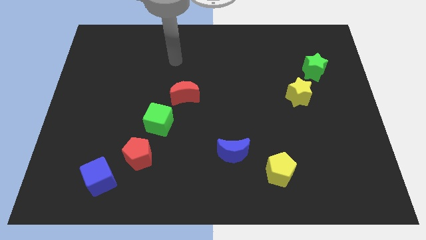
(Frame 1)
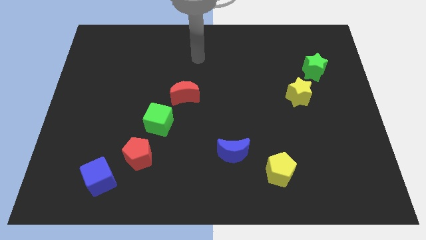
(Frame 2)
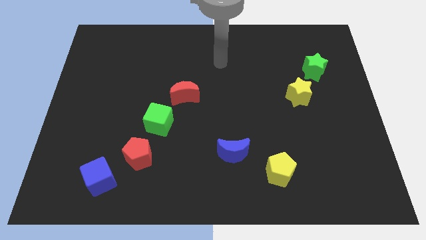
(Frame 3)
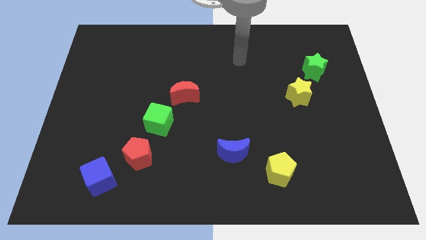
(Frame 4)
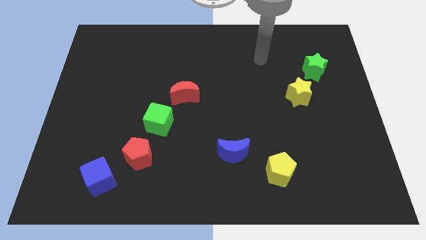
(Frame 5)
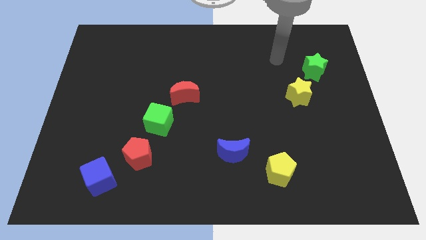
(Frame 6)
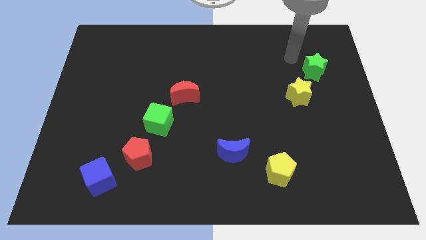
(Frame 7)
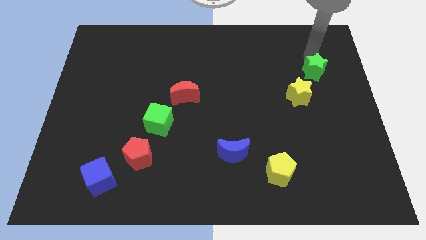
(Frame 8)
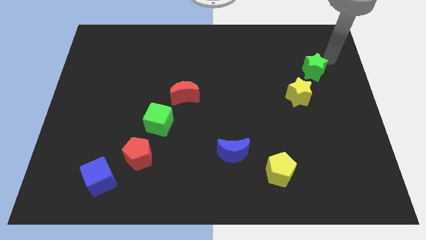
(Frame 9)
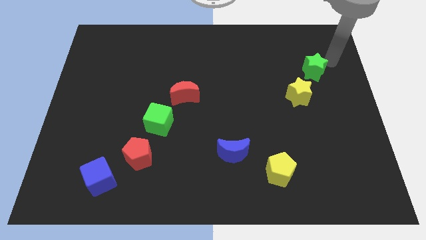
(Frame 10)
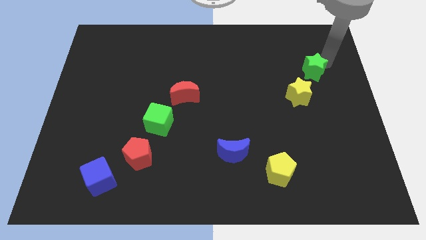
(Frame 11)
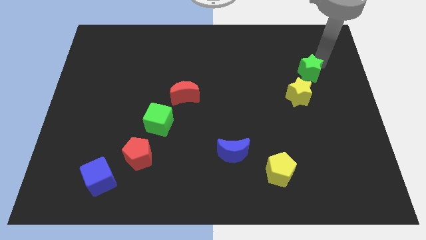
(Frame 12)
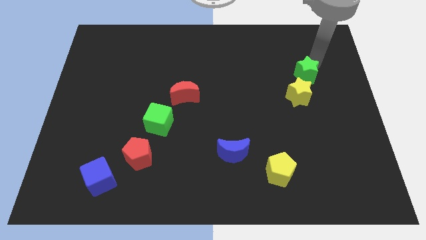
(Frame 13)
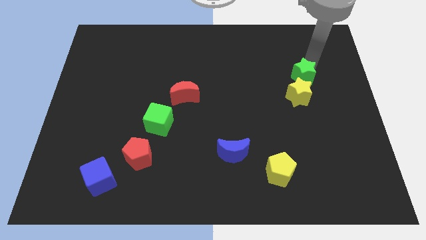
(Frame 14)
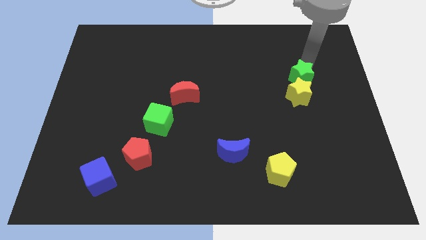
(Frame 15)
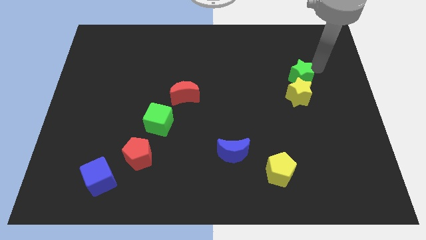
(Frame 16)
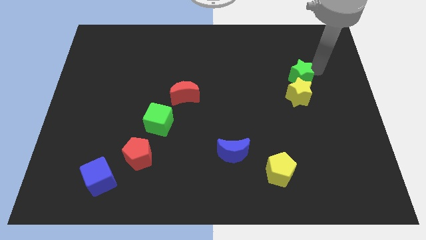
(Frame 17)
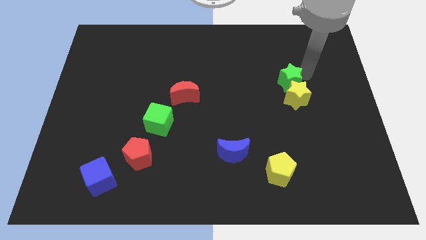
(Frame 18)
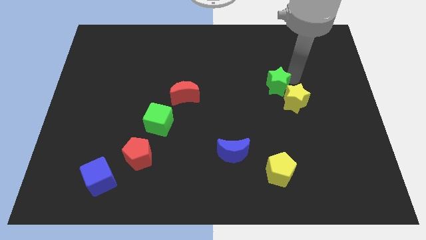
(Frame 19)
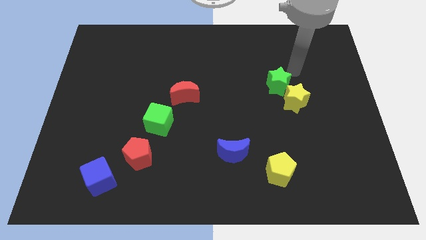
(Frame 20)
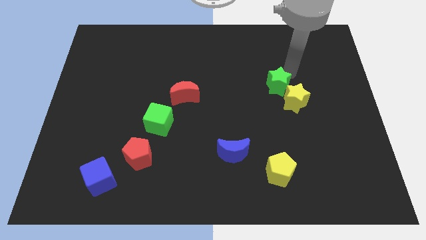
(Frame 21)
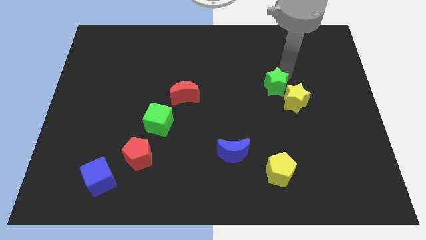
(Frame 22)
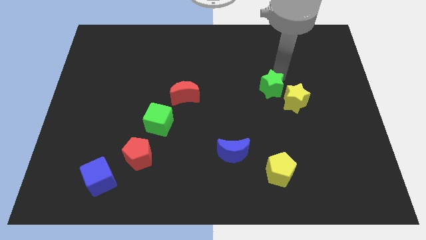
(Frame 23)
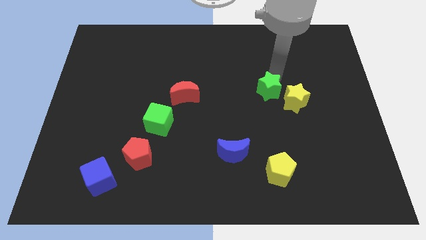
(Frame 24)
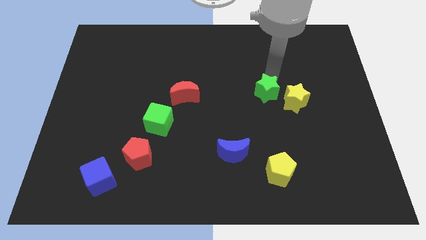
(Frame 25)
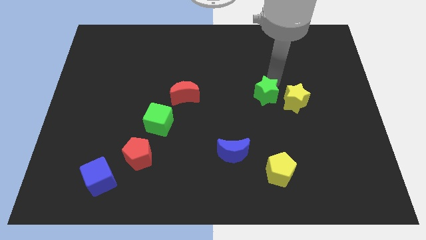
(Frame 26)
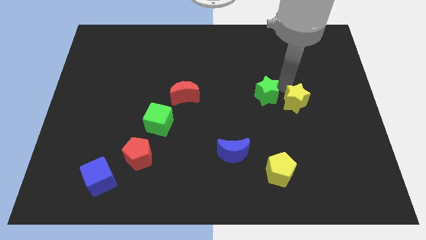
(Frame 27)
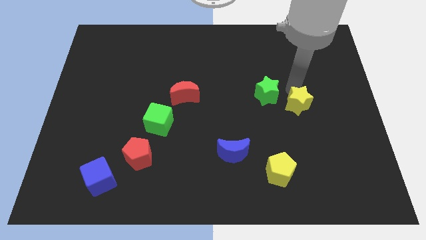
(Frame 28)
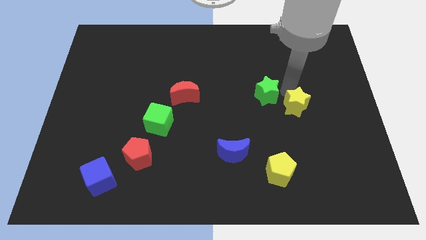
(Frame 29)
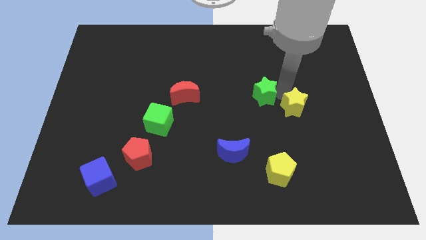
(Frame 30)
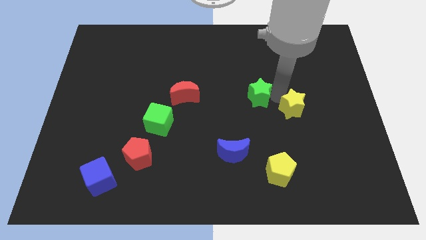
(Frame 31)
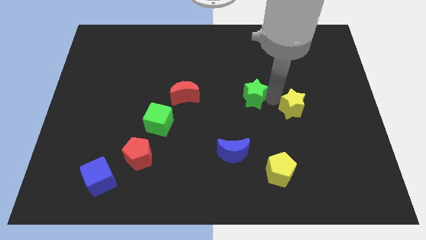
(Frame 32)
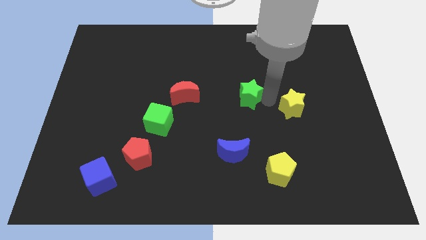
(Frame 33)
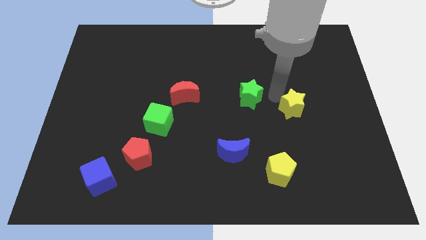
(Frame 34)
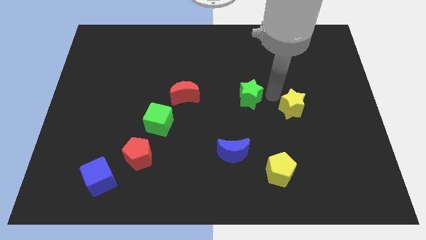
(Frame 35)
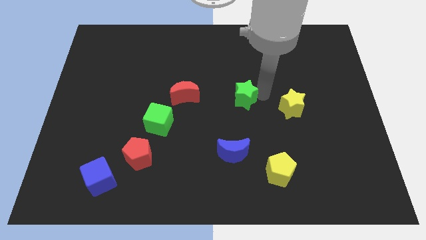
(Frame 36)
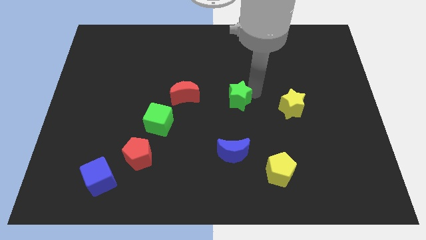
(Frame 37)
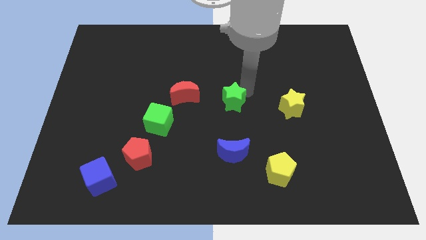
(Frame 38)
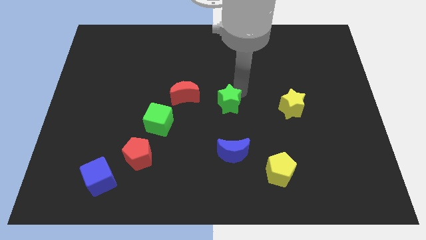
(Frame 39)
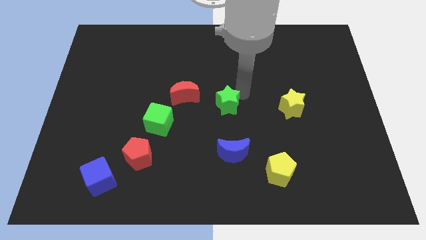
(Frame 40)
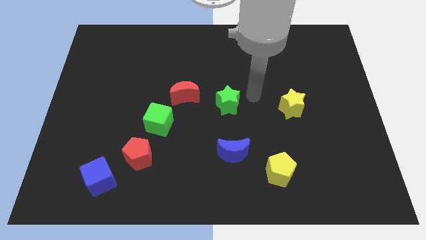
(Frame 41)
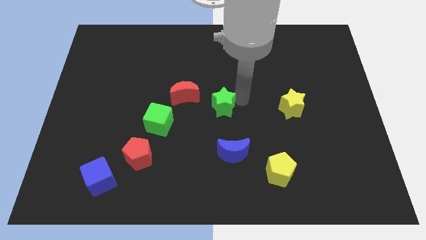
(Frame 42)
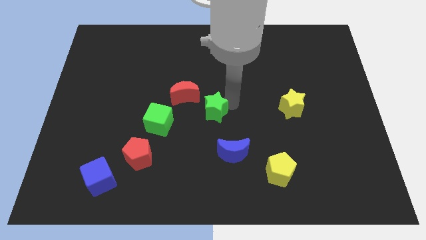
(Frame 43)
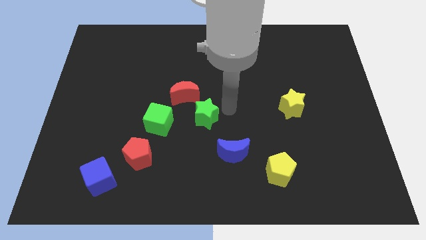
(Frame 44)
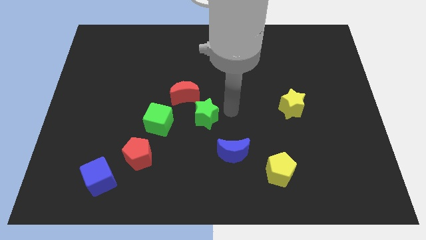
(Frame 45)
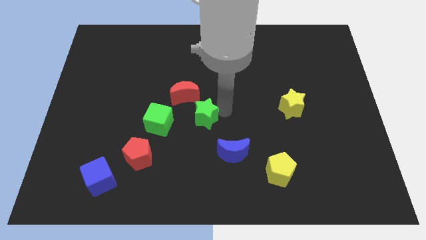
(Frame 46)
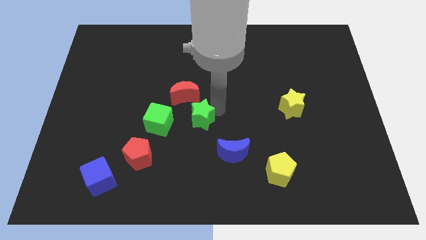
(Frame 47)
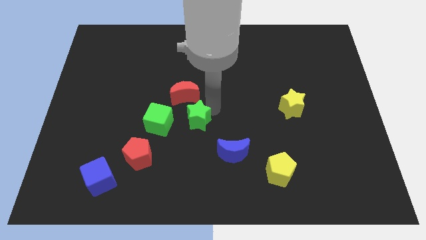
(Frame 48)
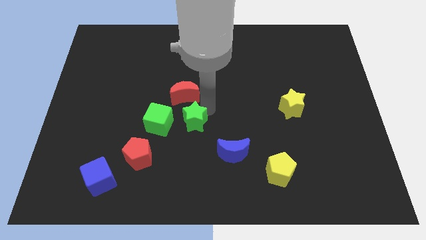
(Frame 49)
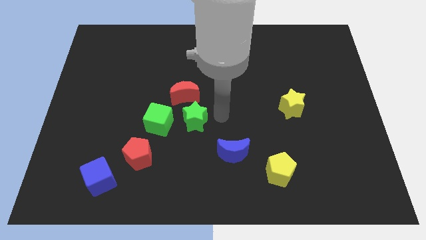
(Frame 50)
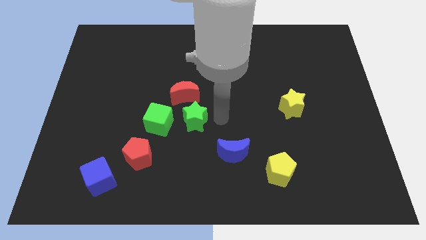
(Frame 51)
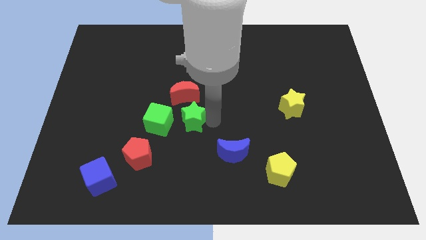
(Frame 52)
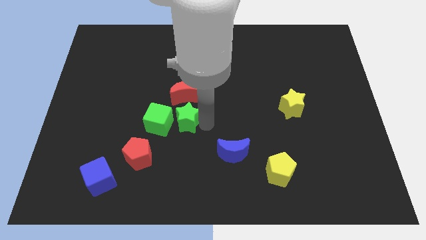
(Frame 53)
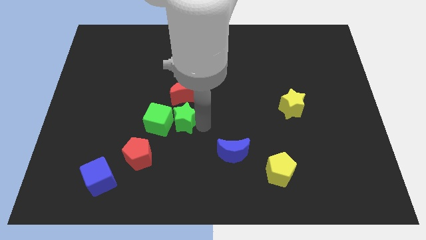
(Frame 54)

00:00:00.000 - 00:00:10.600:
push the green star close to the green cube

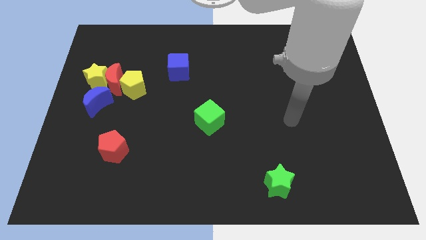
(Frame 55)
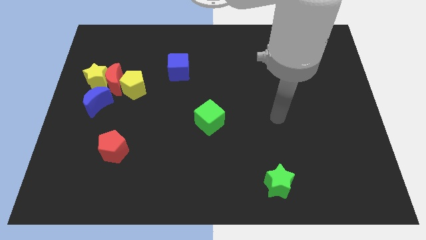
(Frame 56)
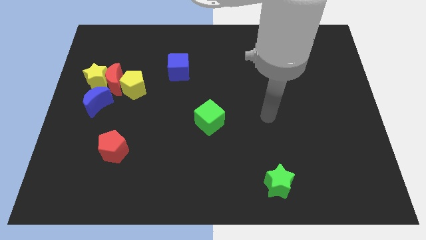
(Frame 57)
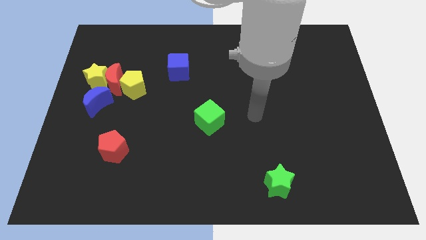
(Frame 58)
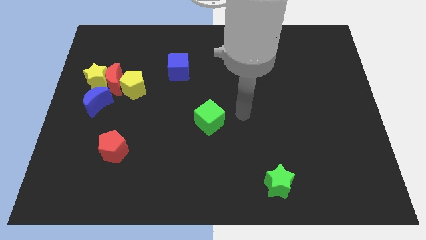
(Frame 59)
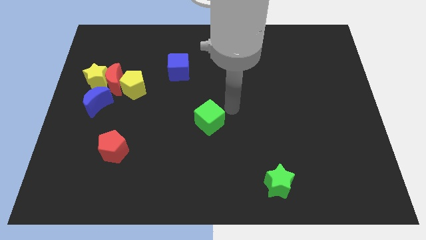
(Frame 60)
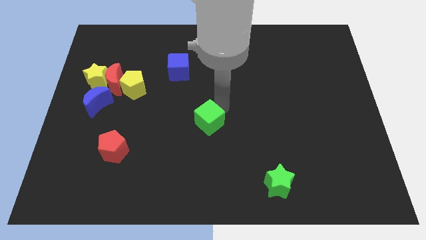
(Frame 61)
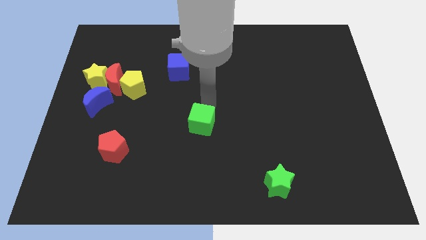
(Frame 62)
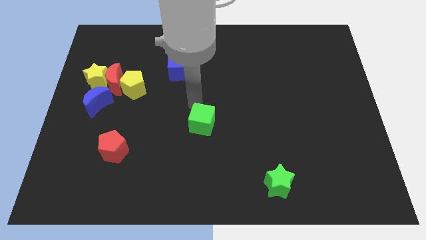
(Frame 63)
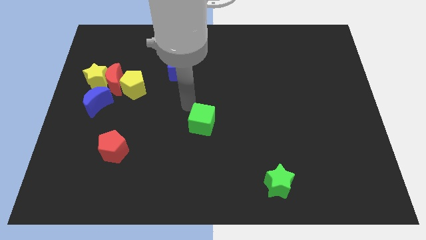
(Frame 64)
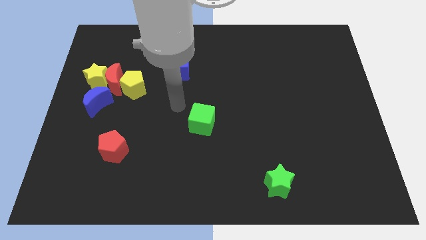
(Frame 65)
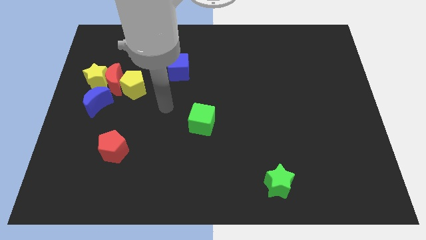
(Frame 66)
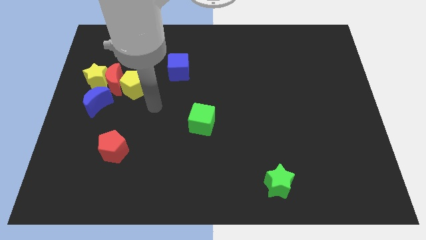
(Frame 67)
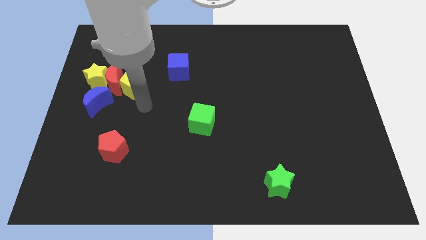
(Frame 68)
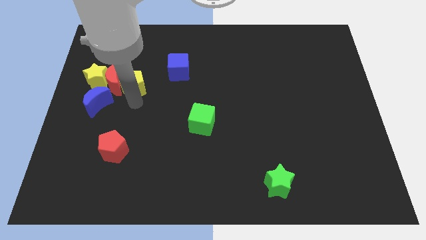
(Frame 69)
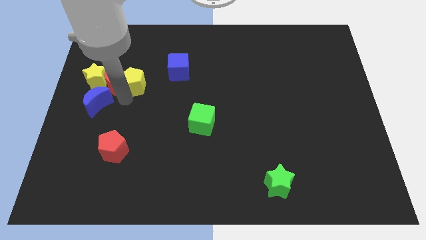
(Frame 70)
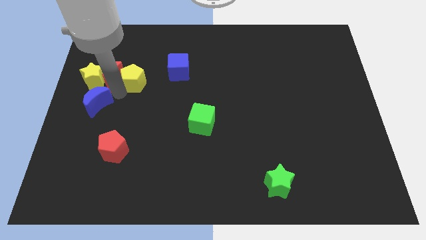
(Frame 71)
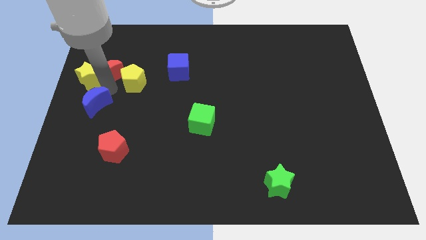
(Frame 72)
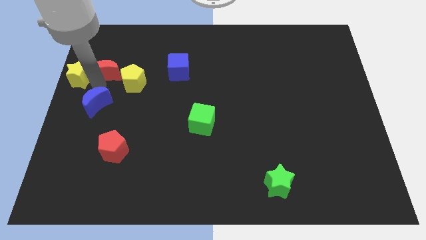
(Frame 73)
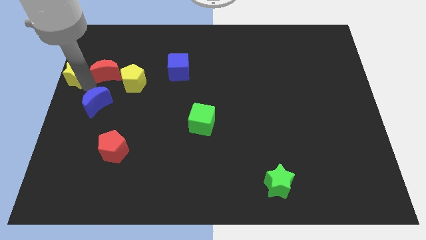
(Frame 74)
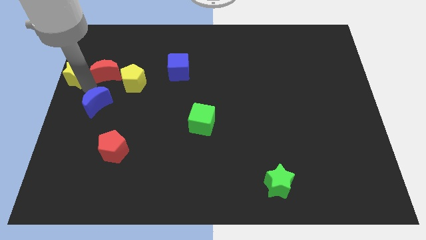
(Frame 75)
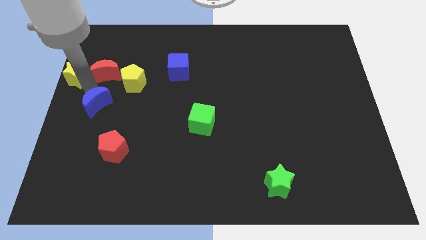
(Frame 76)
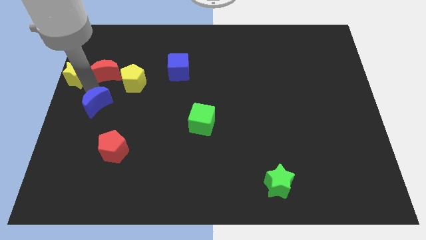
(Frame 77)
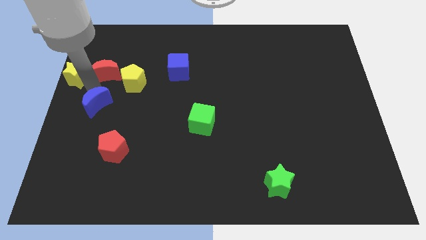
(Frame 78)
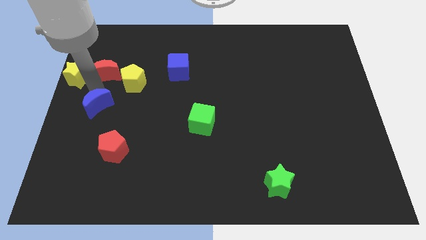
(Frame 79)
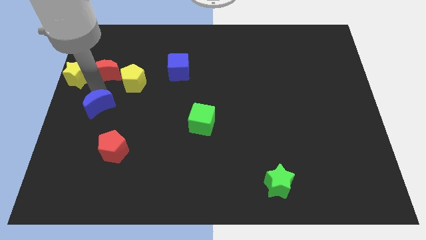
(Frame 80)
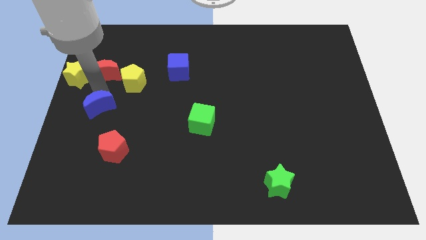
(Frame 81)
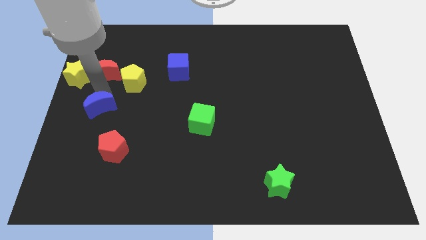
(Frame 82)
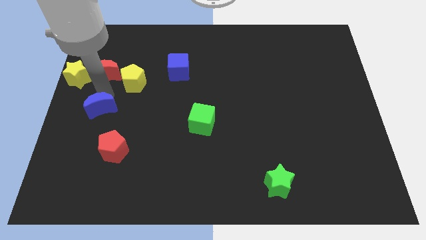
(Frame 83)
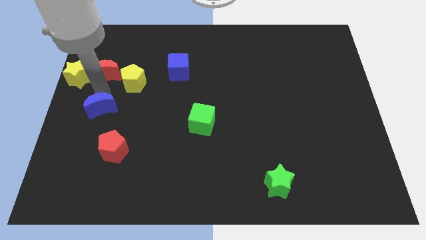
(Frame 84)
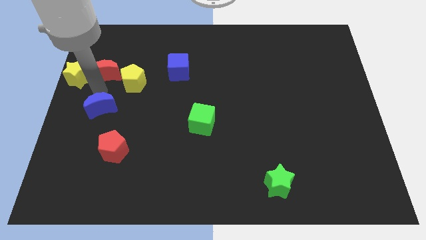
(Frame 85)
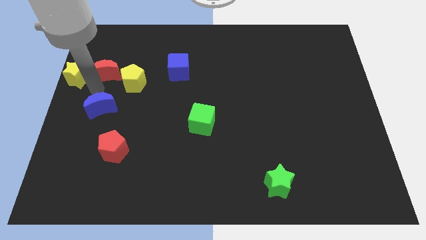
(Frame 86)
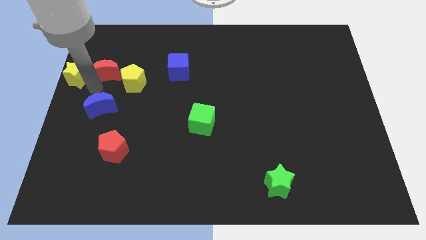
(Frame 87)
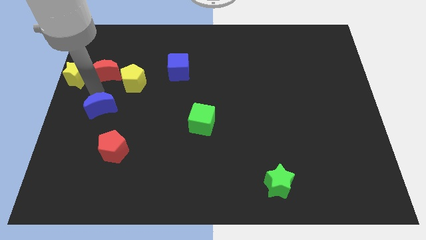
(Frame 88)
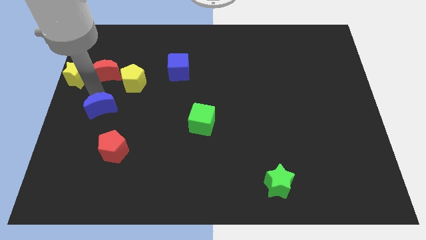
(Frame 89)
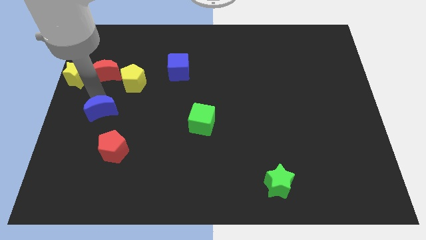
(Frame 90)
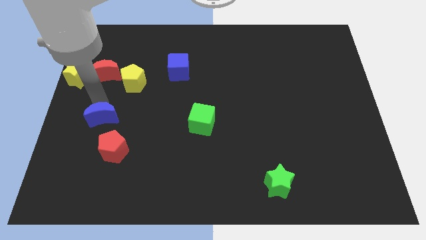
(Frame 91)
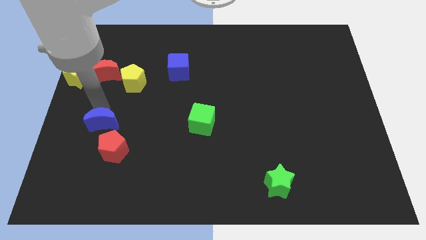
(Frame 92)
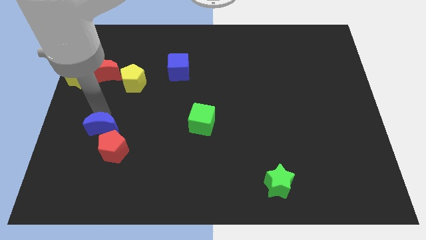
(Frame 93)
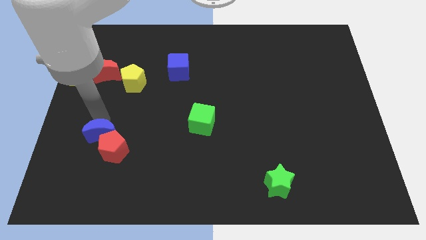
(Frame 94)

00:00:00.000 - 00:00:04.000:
put the blue moon close to the red pentagon
